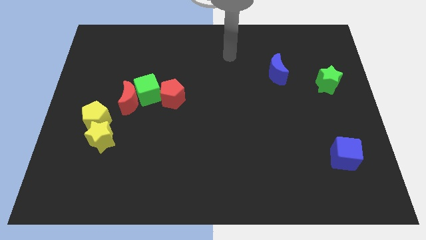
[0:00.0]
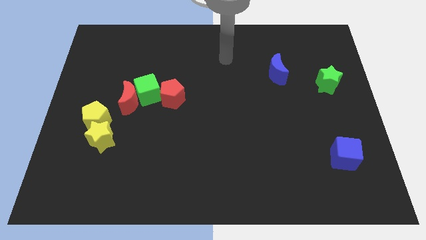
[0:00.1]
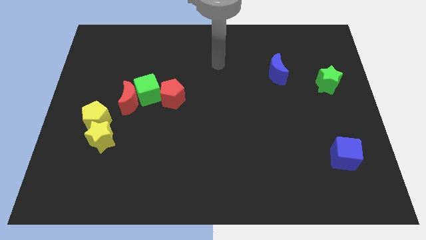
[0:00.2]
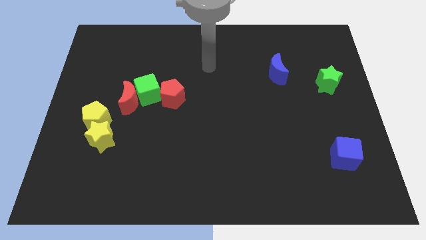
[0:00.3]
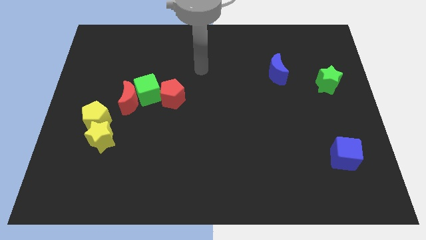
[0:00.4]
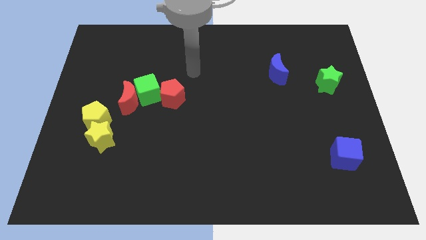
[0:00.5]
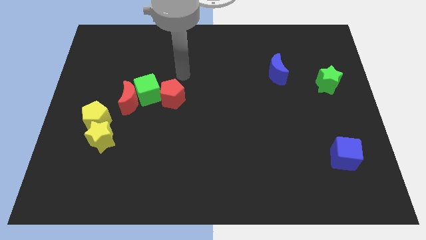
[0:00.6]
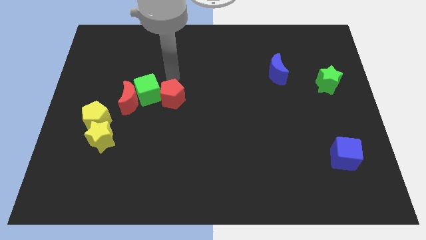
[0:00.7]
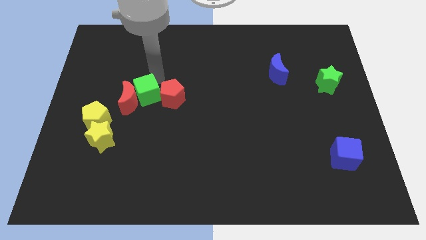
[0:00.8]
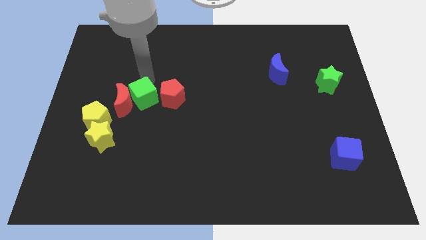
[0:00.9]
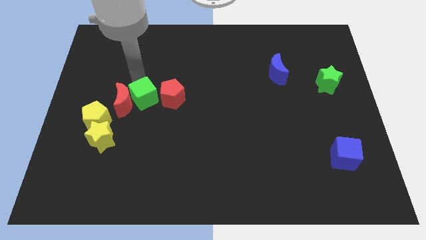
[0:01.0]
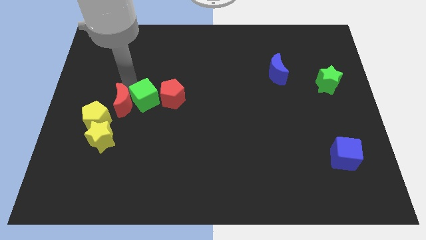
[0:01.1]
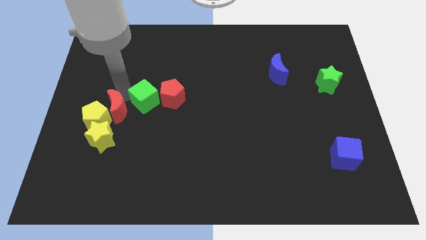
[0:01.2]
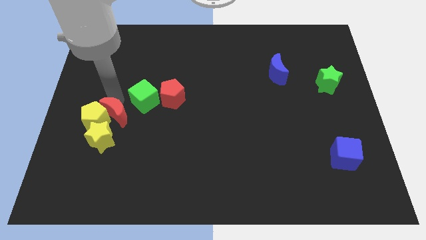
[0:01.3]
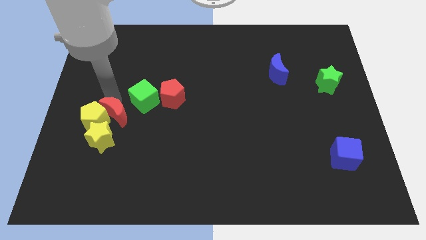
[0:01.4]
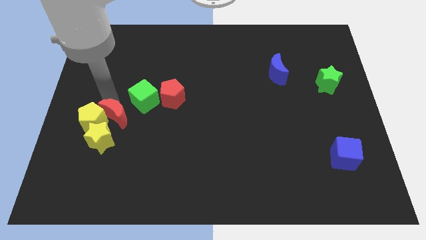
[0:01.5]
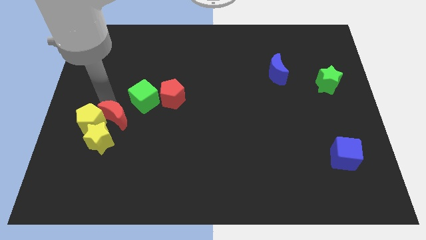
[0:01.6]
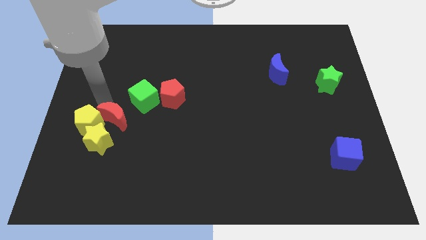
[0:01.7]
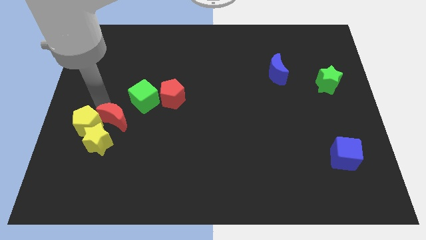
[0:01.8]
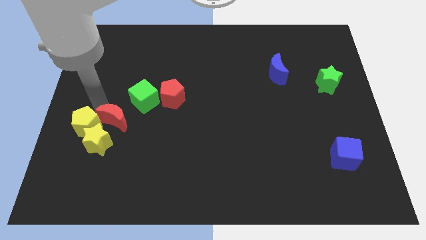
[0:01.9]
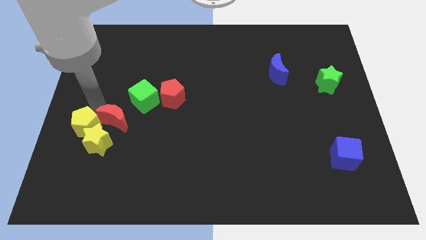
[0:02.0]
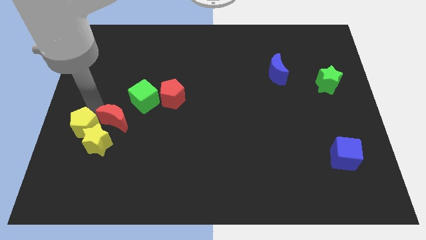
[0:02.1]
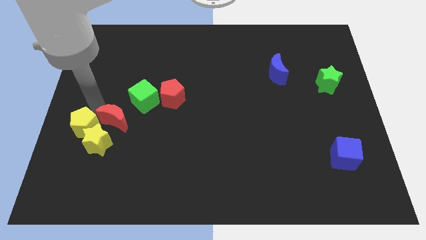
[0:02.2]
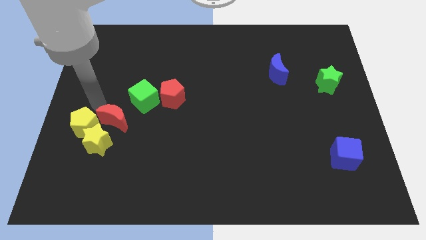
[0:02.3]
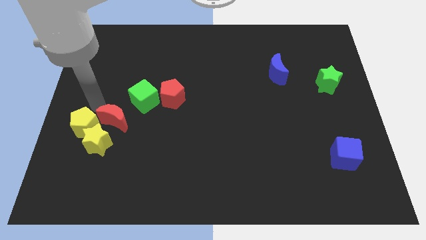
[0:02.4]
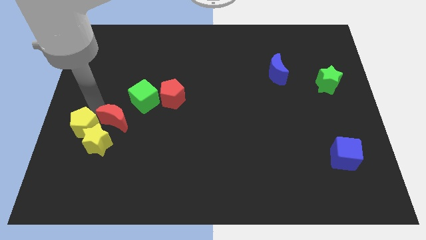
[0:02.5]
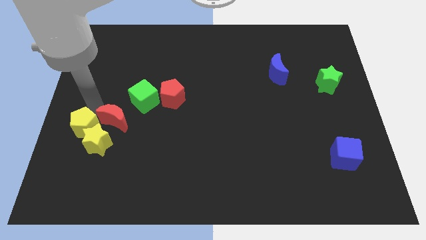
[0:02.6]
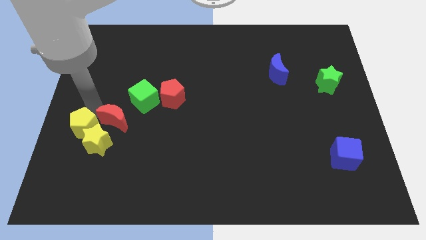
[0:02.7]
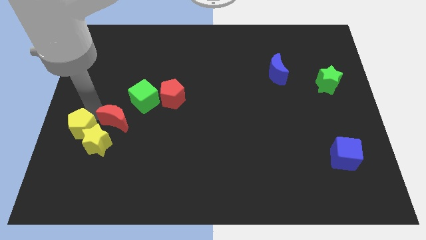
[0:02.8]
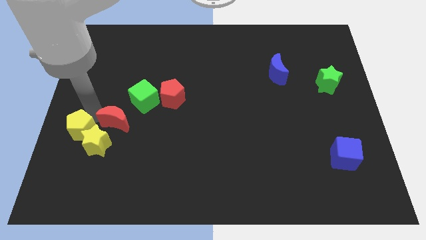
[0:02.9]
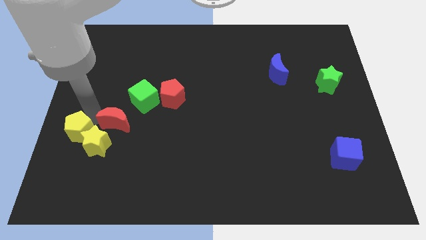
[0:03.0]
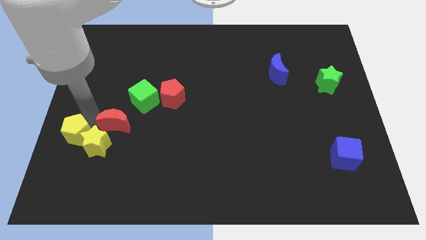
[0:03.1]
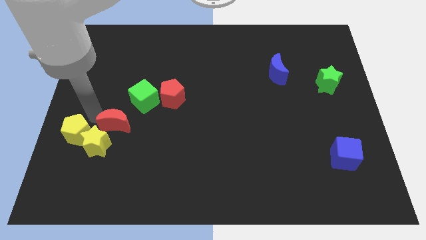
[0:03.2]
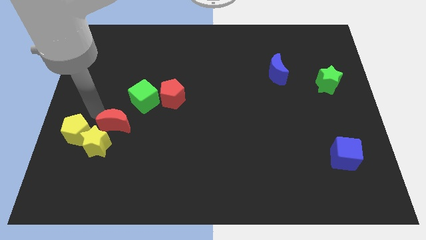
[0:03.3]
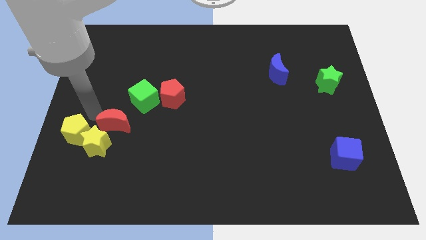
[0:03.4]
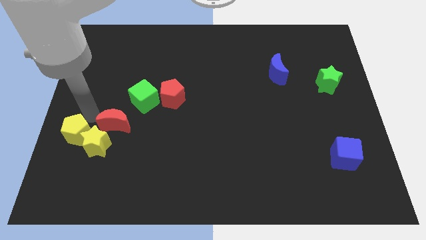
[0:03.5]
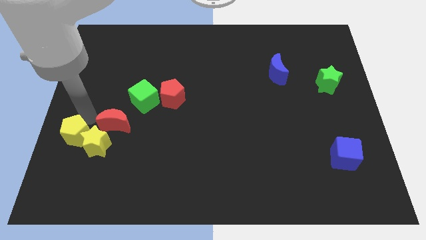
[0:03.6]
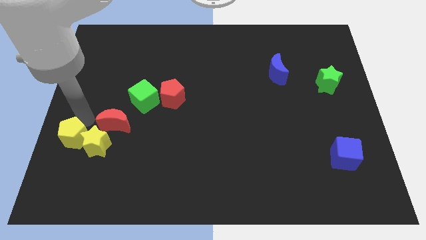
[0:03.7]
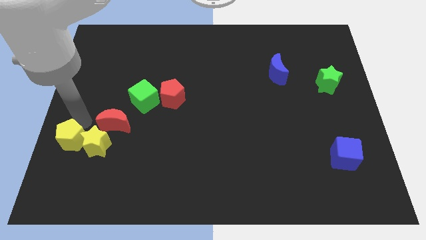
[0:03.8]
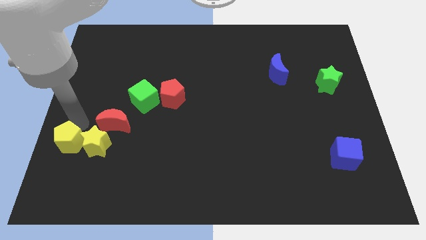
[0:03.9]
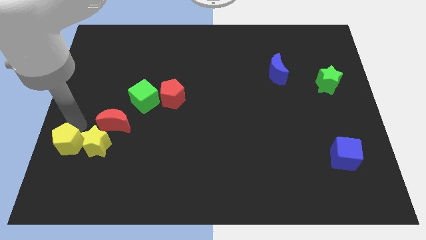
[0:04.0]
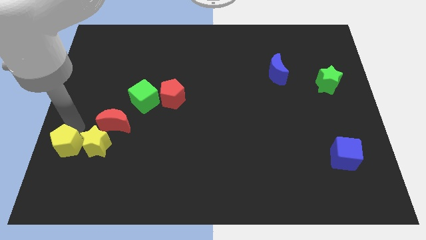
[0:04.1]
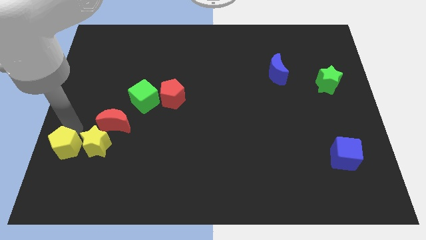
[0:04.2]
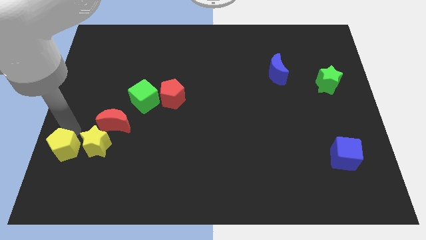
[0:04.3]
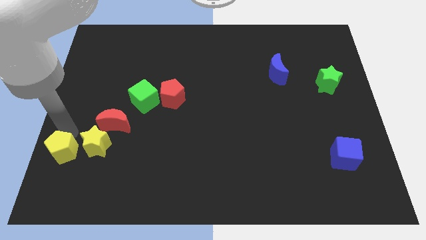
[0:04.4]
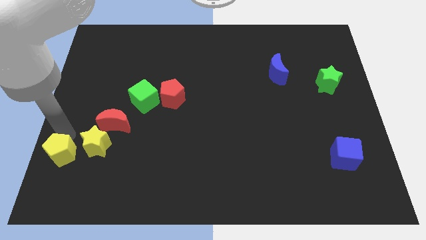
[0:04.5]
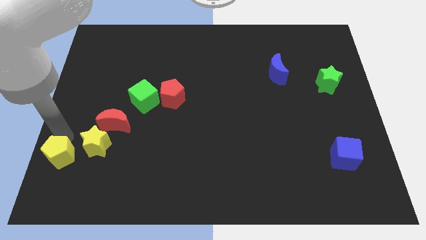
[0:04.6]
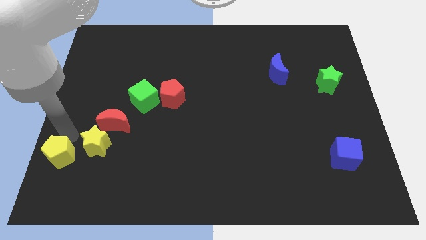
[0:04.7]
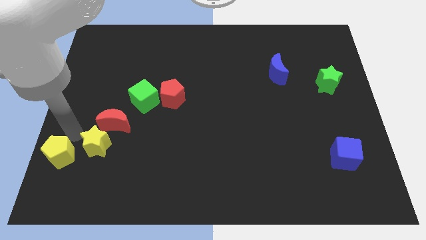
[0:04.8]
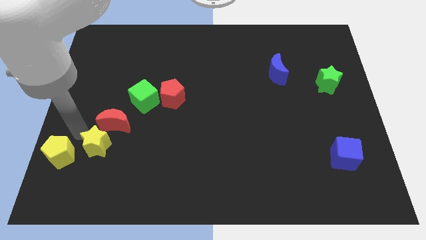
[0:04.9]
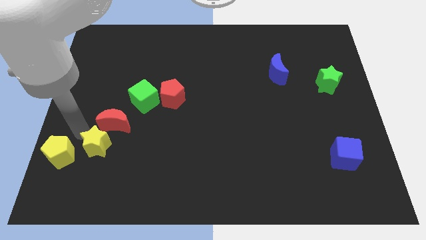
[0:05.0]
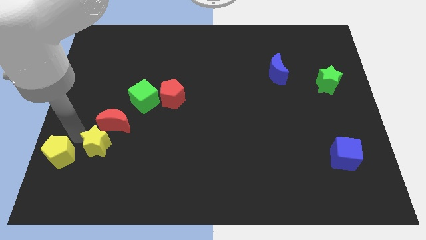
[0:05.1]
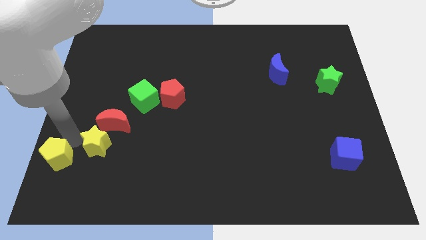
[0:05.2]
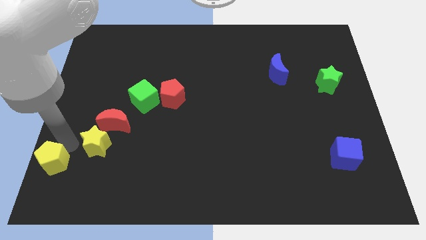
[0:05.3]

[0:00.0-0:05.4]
move the yellow pentagon to the bottom left corner

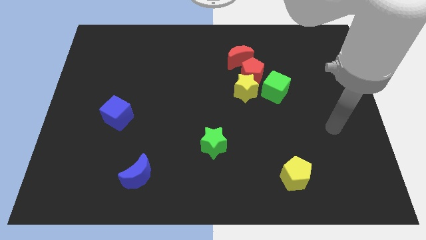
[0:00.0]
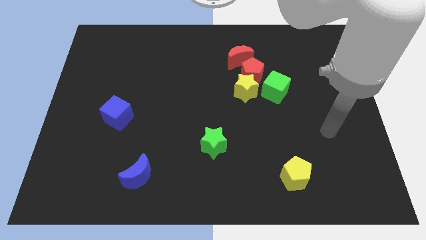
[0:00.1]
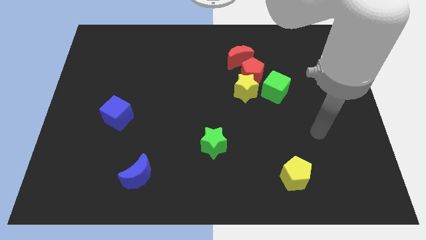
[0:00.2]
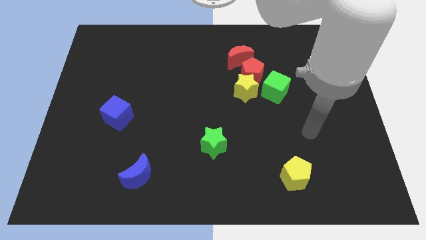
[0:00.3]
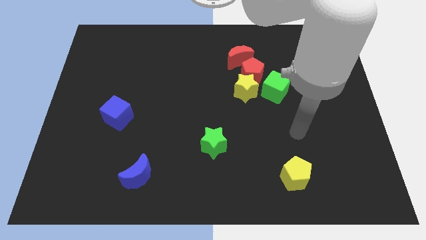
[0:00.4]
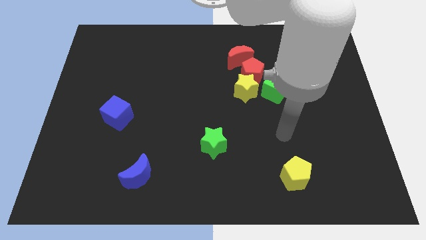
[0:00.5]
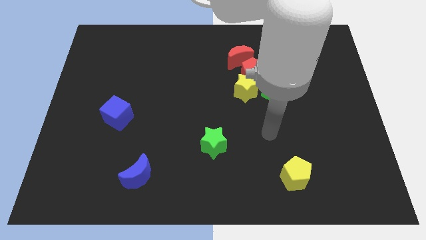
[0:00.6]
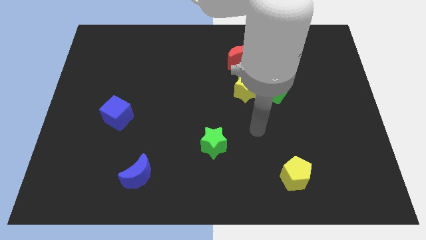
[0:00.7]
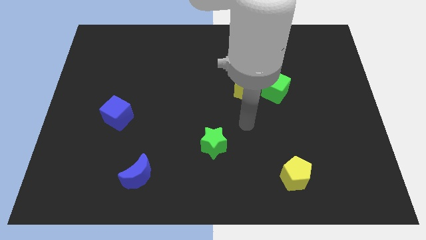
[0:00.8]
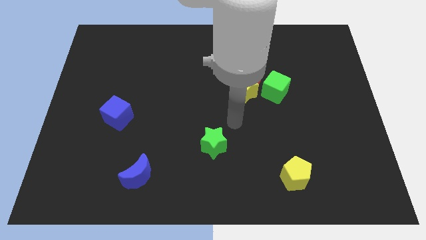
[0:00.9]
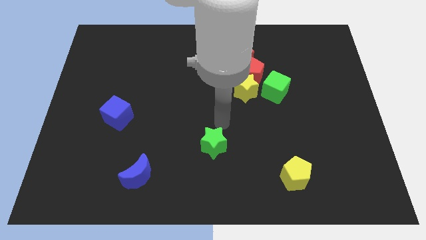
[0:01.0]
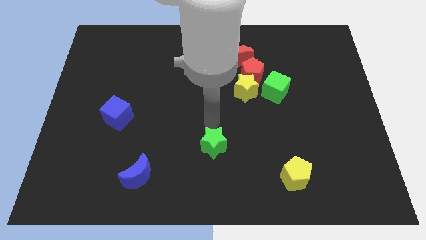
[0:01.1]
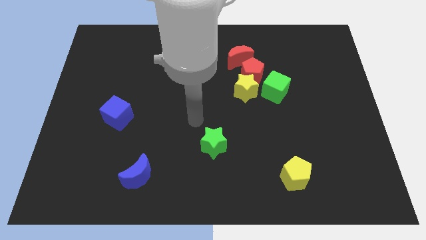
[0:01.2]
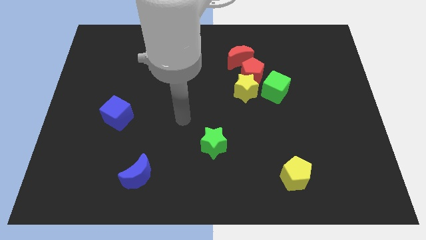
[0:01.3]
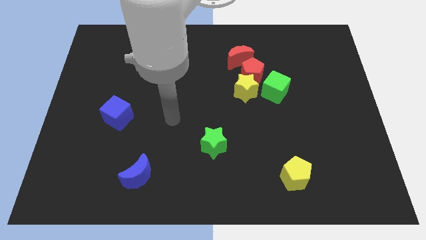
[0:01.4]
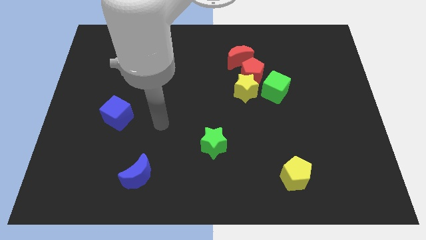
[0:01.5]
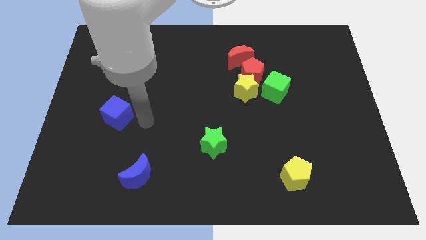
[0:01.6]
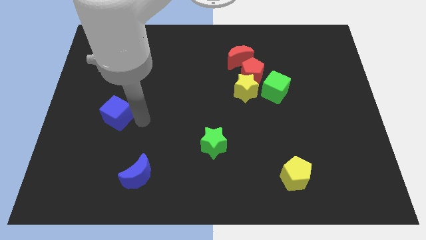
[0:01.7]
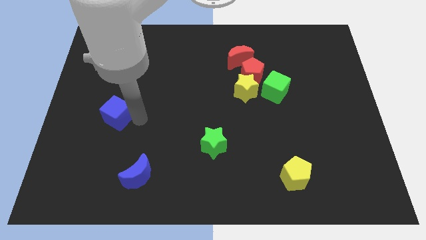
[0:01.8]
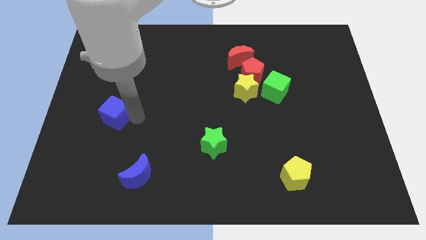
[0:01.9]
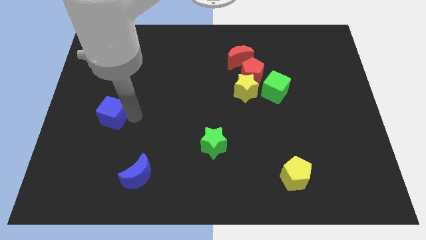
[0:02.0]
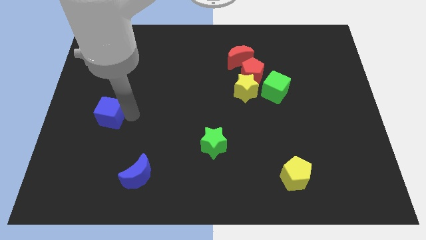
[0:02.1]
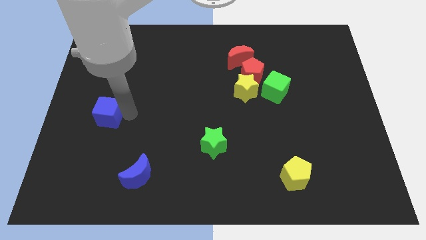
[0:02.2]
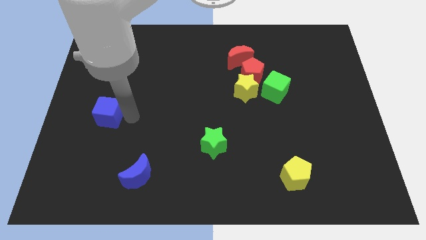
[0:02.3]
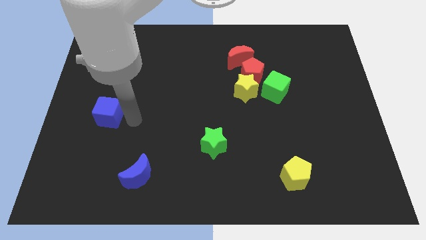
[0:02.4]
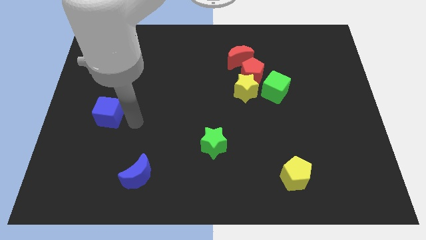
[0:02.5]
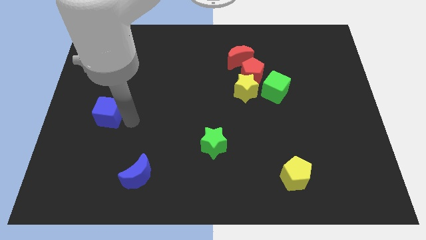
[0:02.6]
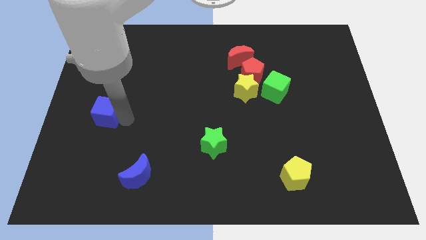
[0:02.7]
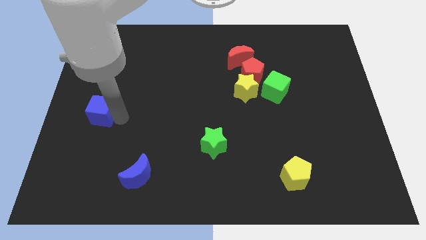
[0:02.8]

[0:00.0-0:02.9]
put the blue cube to the left side of the board
